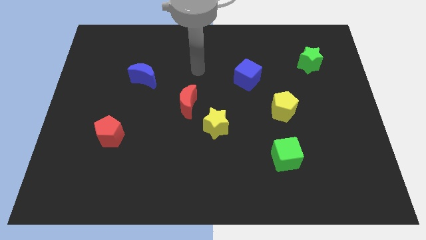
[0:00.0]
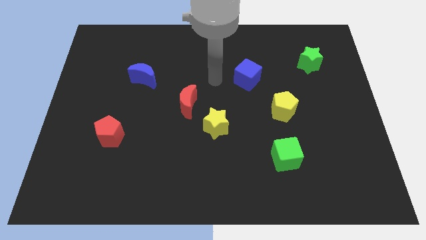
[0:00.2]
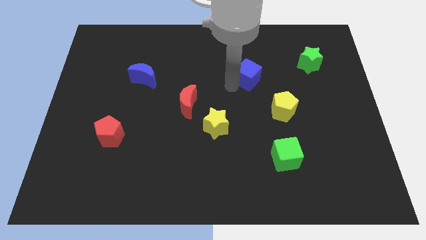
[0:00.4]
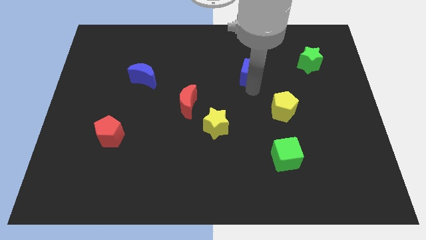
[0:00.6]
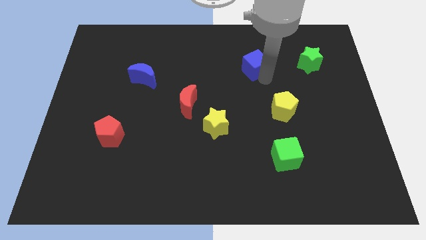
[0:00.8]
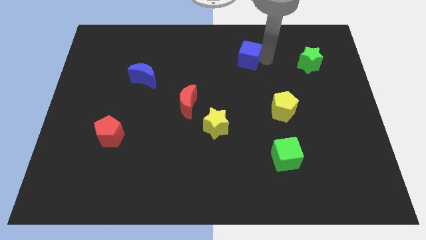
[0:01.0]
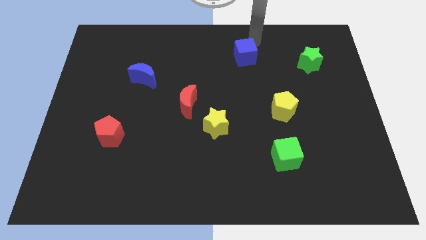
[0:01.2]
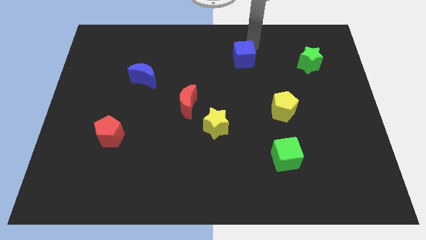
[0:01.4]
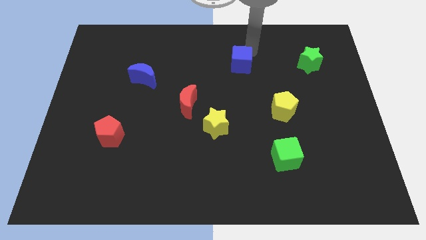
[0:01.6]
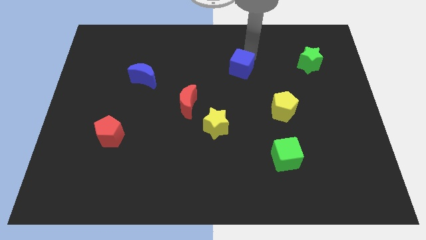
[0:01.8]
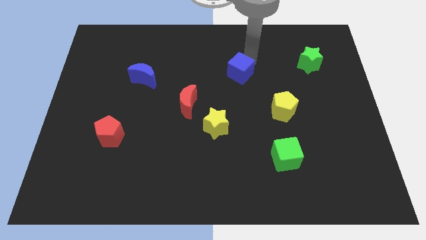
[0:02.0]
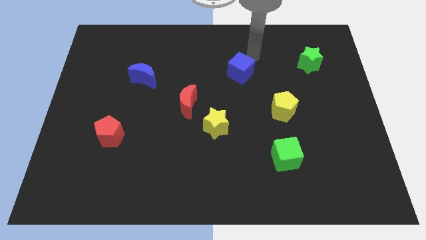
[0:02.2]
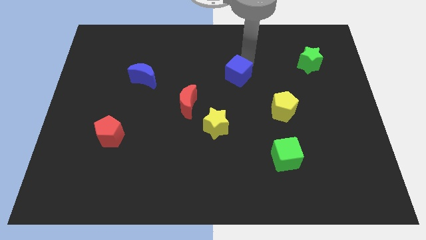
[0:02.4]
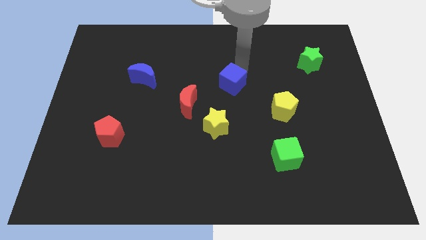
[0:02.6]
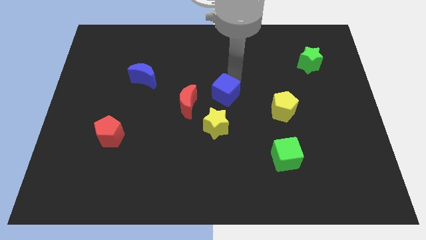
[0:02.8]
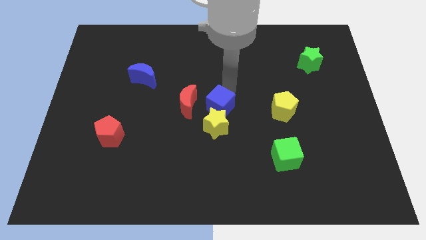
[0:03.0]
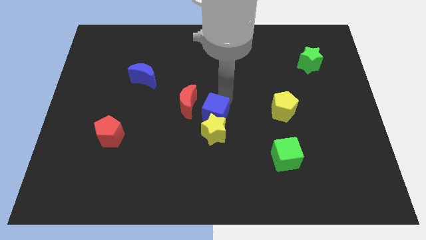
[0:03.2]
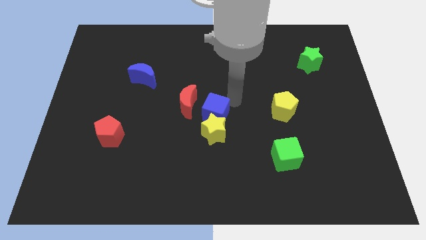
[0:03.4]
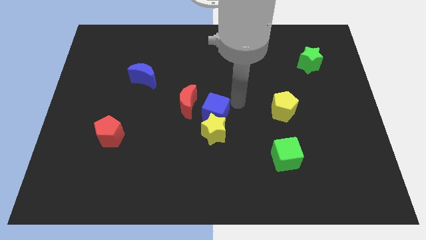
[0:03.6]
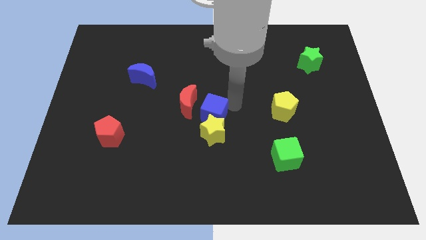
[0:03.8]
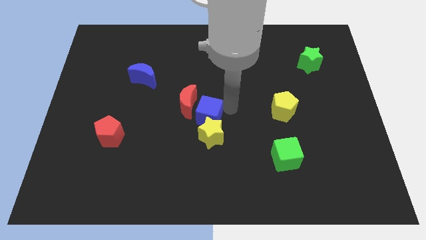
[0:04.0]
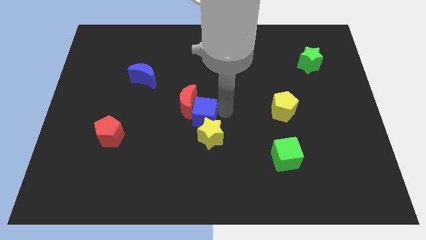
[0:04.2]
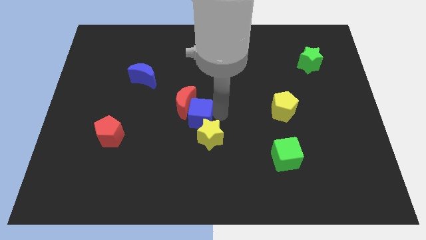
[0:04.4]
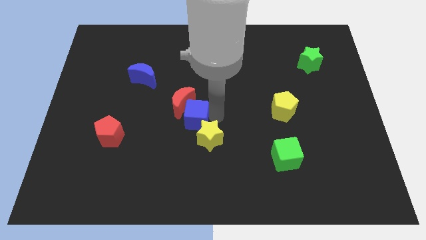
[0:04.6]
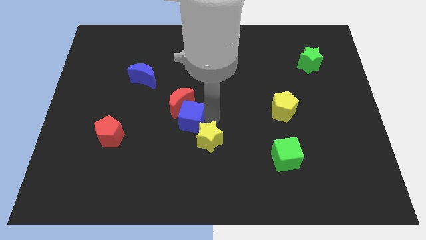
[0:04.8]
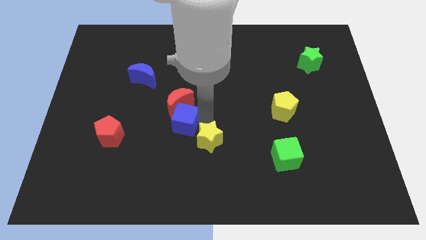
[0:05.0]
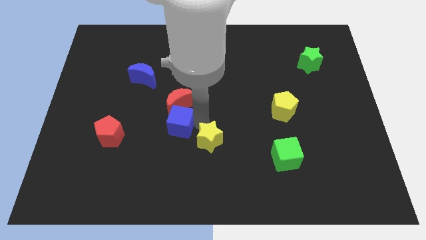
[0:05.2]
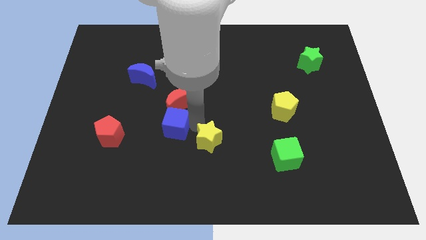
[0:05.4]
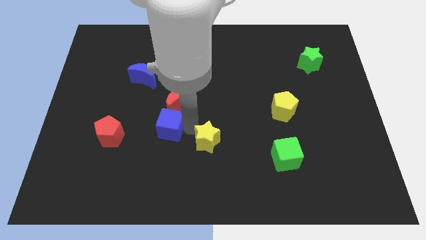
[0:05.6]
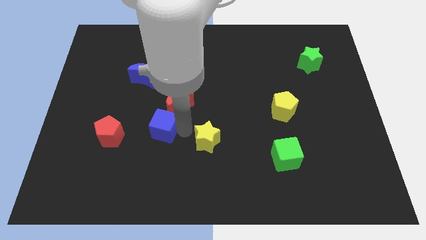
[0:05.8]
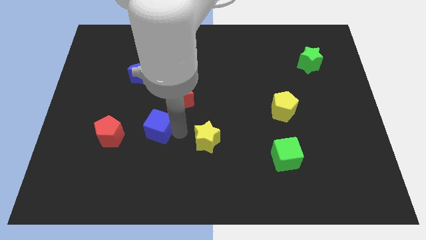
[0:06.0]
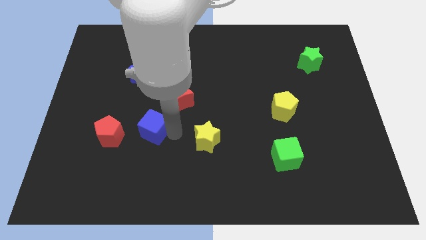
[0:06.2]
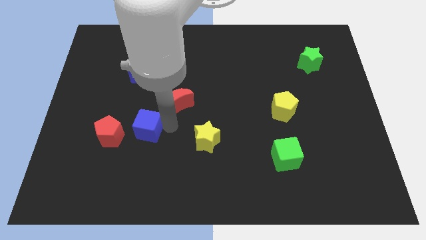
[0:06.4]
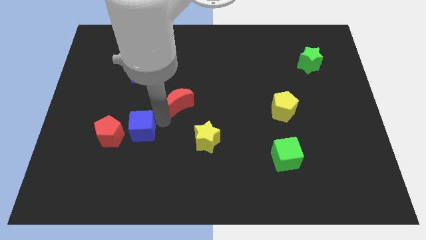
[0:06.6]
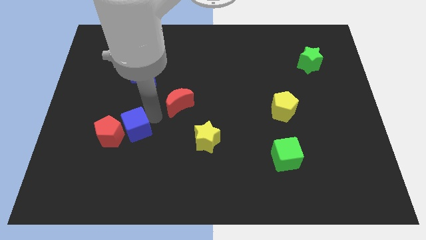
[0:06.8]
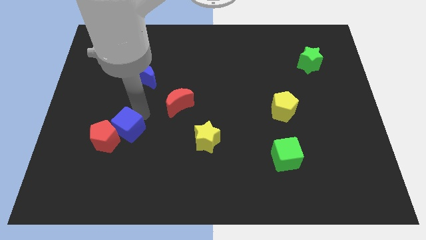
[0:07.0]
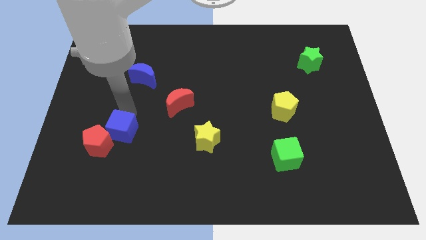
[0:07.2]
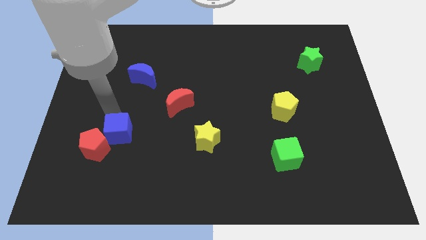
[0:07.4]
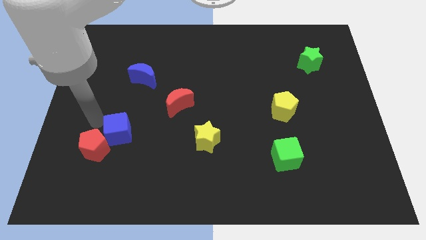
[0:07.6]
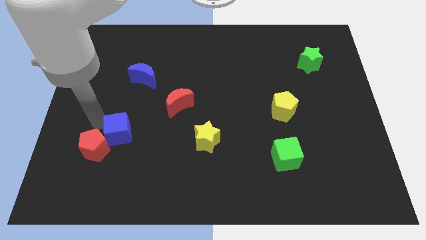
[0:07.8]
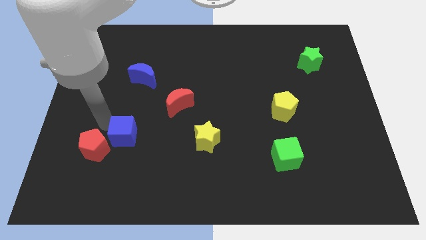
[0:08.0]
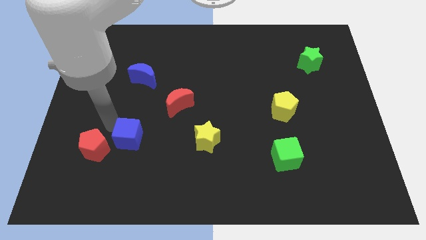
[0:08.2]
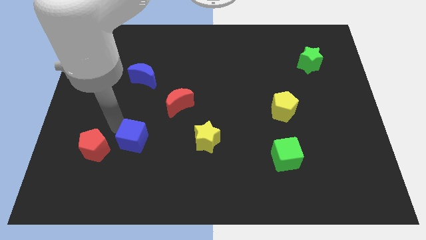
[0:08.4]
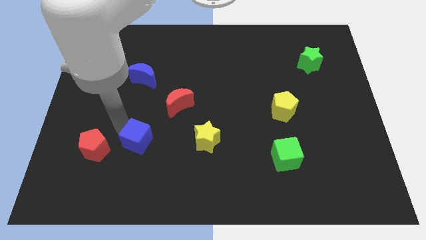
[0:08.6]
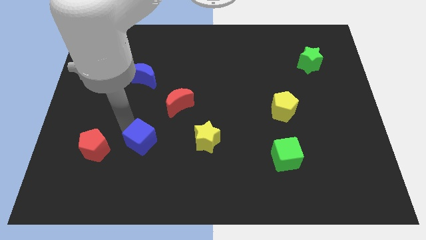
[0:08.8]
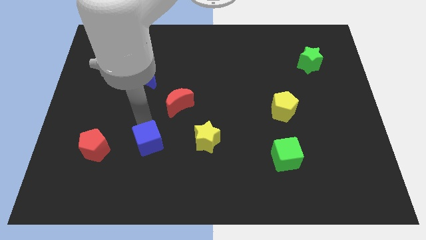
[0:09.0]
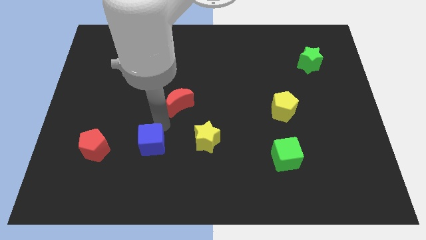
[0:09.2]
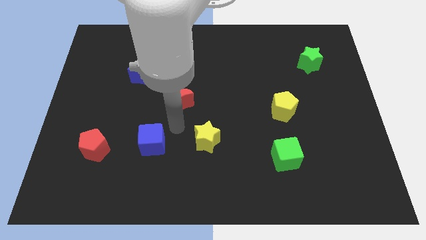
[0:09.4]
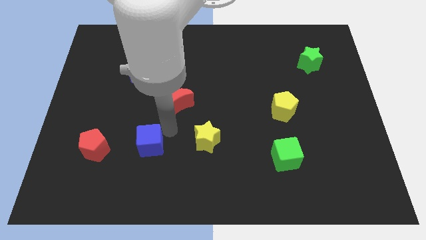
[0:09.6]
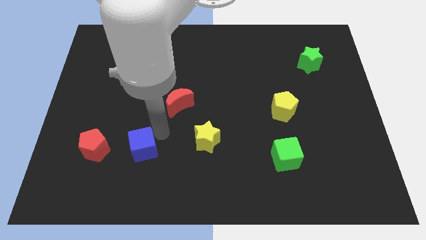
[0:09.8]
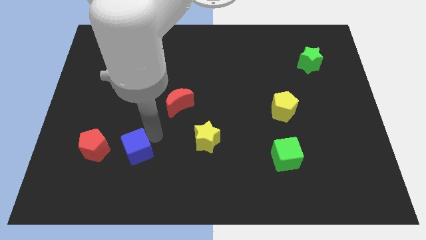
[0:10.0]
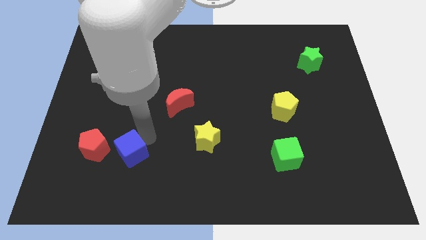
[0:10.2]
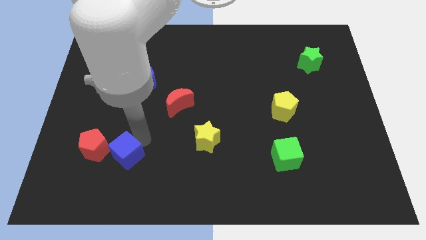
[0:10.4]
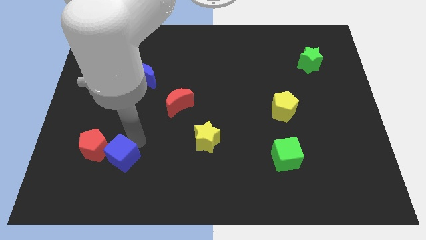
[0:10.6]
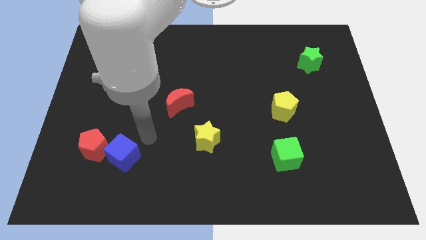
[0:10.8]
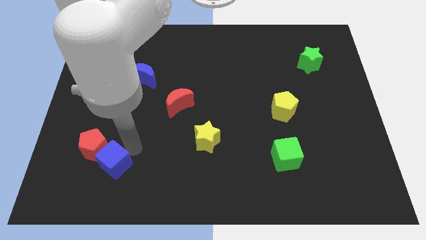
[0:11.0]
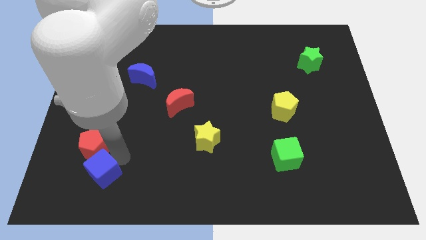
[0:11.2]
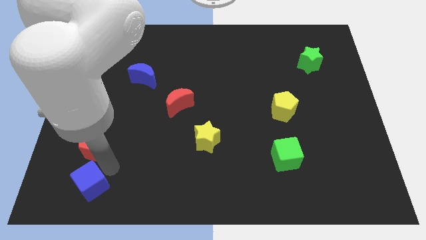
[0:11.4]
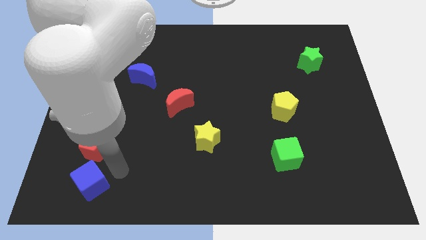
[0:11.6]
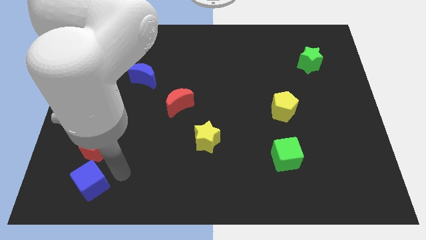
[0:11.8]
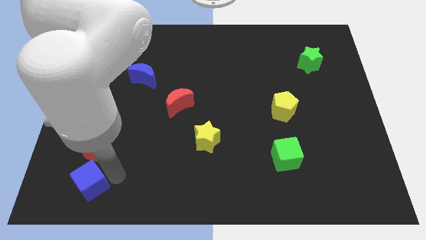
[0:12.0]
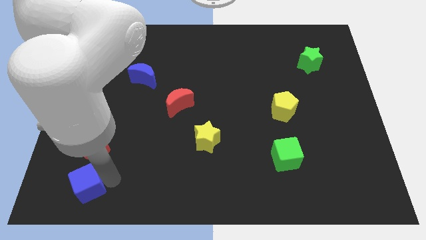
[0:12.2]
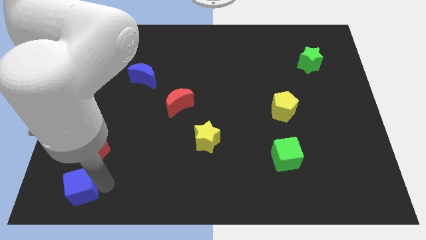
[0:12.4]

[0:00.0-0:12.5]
move the blue cube to the bottom left of the board

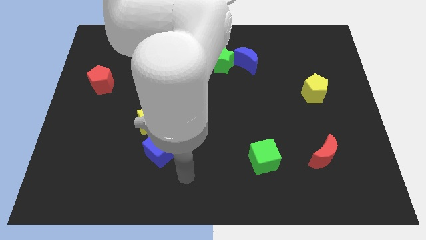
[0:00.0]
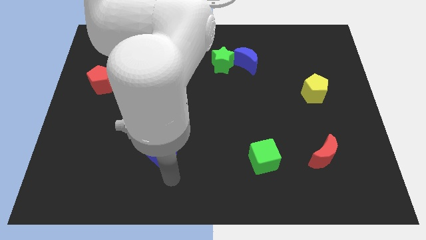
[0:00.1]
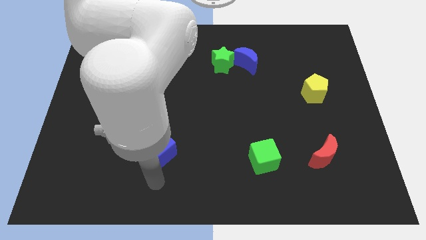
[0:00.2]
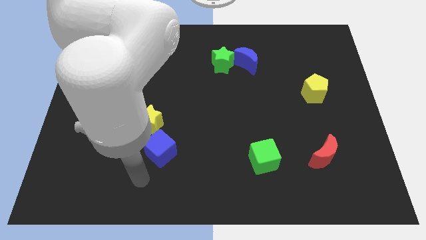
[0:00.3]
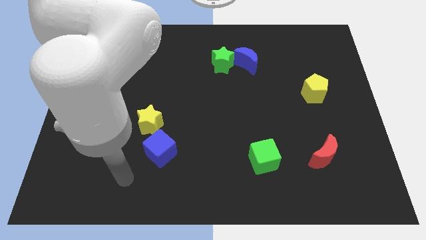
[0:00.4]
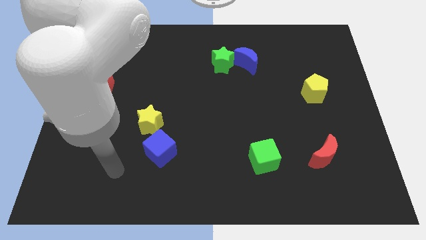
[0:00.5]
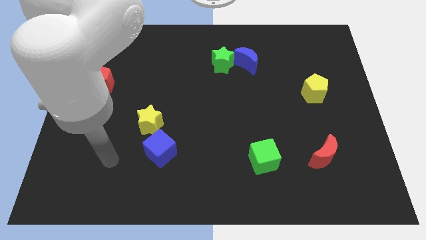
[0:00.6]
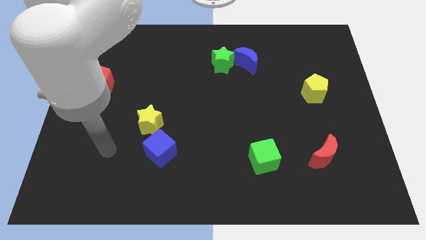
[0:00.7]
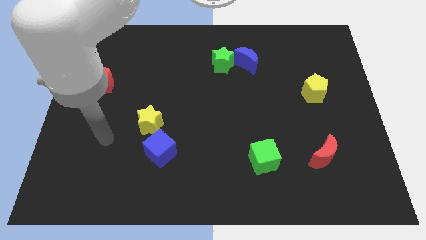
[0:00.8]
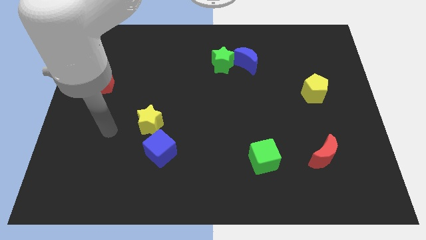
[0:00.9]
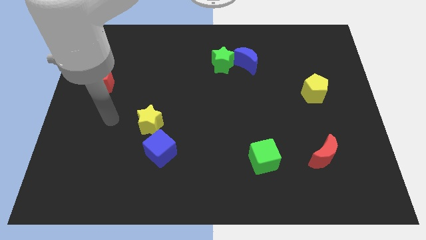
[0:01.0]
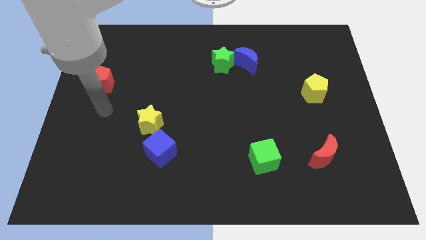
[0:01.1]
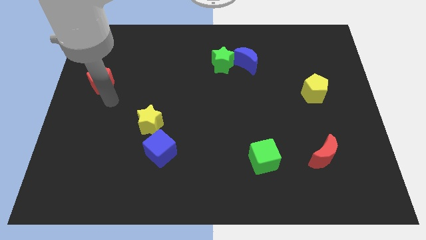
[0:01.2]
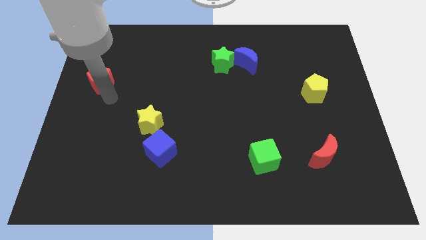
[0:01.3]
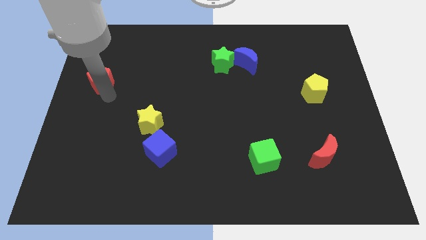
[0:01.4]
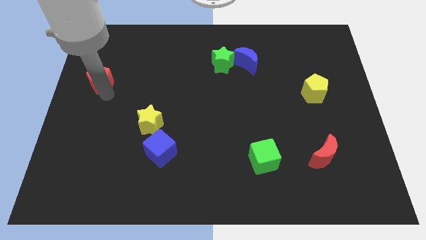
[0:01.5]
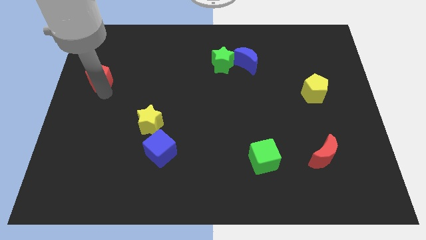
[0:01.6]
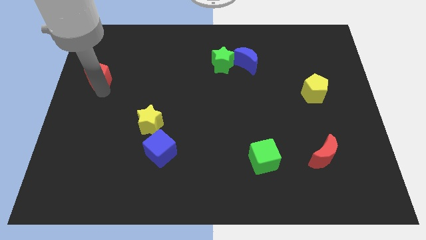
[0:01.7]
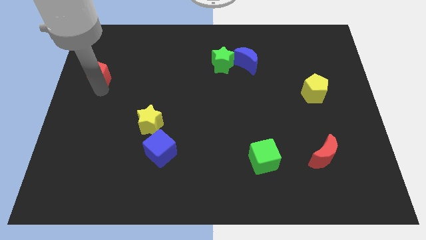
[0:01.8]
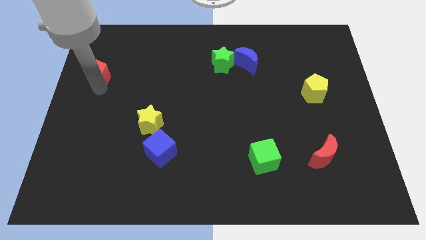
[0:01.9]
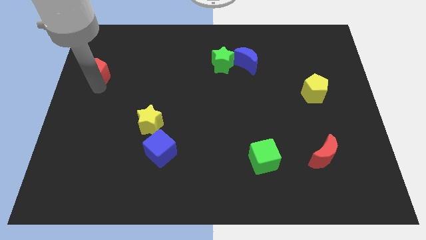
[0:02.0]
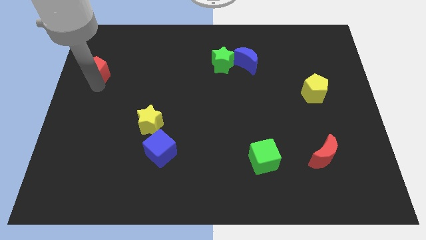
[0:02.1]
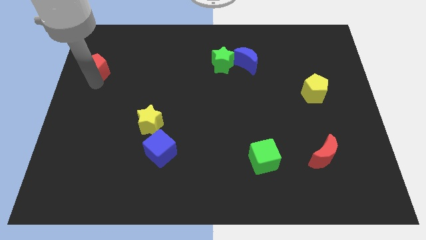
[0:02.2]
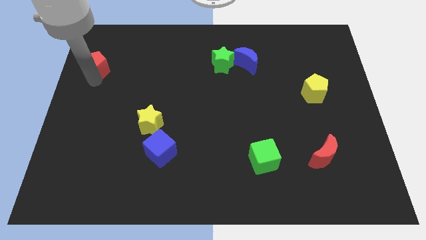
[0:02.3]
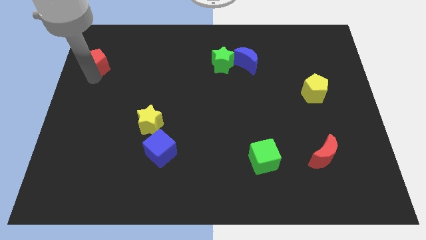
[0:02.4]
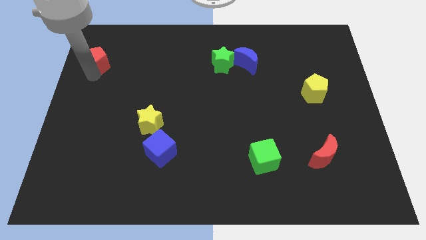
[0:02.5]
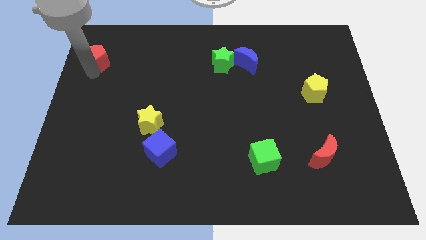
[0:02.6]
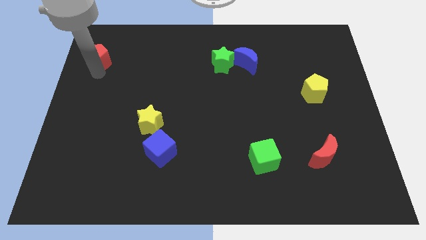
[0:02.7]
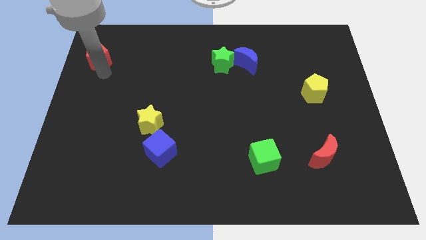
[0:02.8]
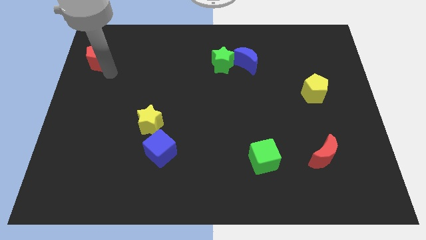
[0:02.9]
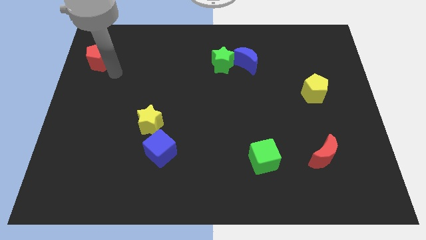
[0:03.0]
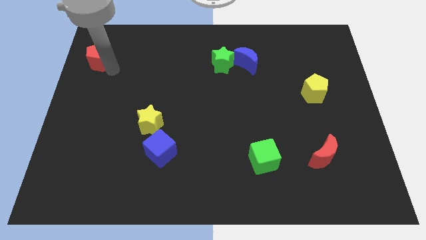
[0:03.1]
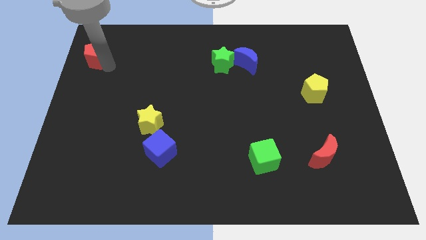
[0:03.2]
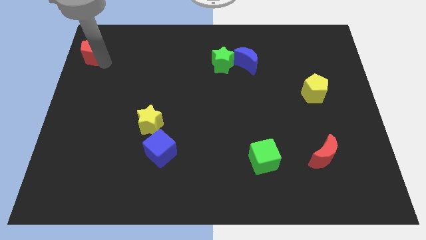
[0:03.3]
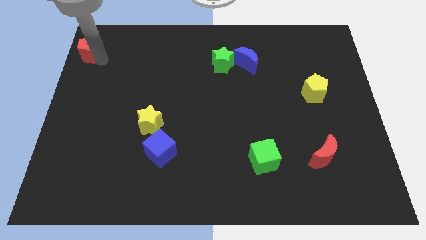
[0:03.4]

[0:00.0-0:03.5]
move the red pentagon to the top left of the board
